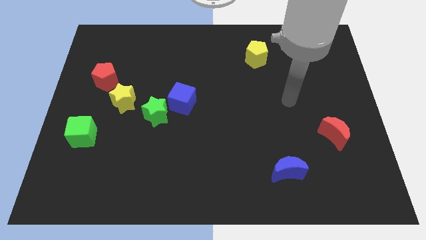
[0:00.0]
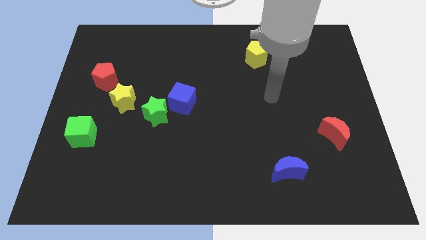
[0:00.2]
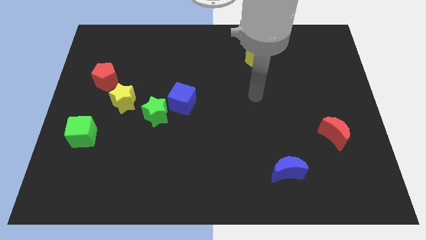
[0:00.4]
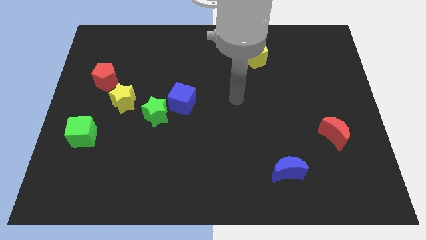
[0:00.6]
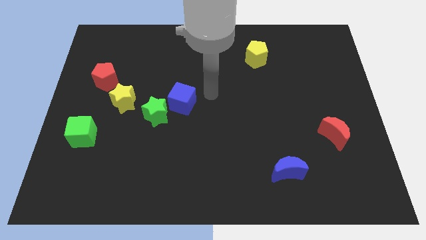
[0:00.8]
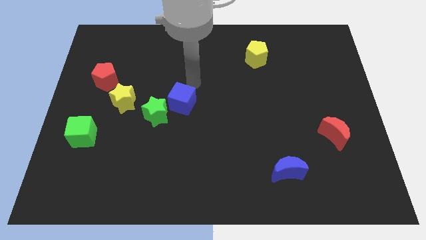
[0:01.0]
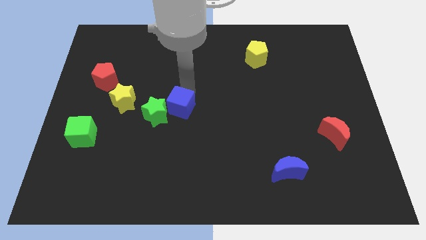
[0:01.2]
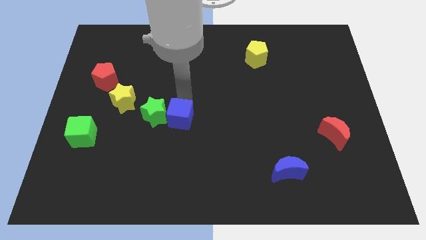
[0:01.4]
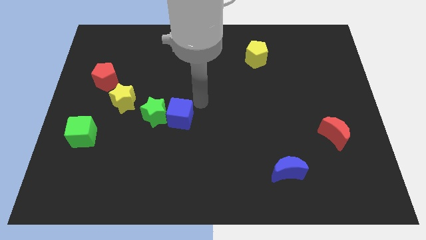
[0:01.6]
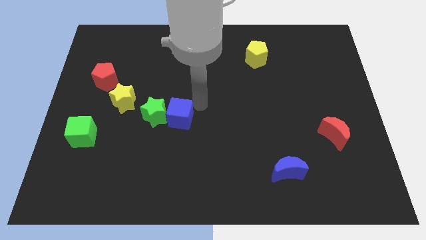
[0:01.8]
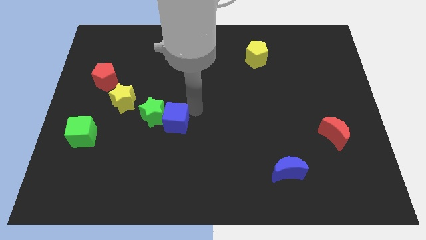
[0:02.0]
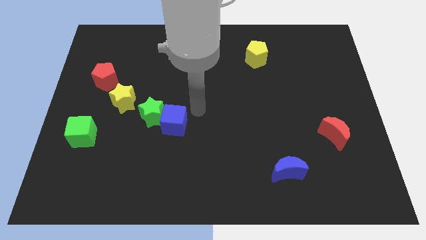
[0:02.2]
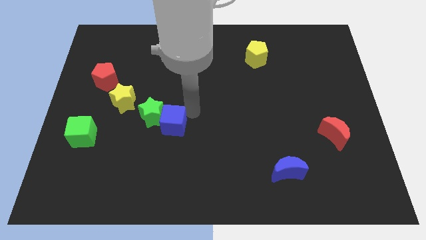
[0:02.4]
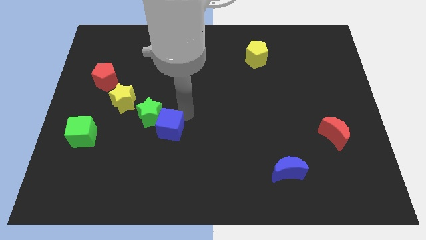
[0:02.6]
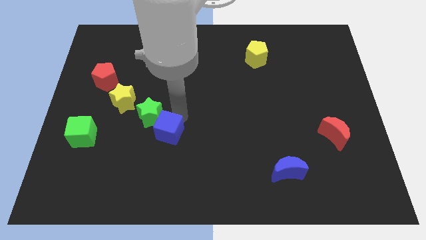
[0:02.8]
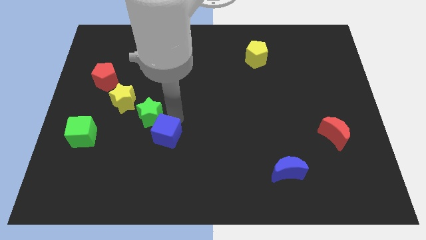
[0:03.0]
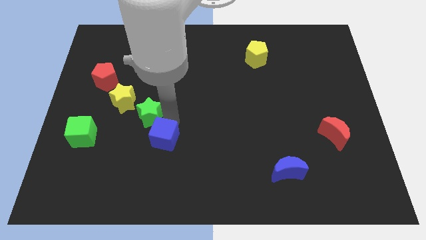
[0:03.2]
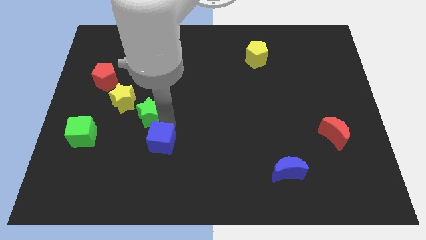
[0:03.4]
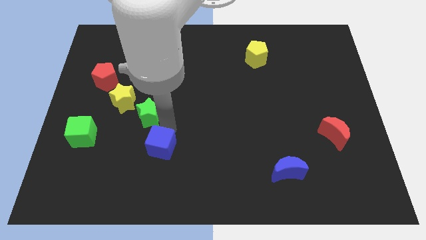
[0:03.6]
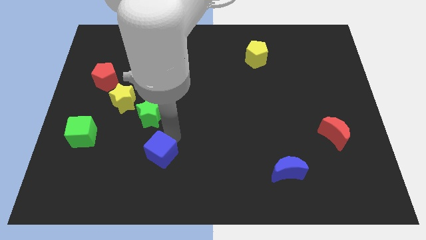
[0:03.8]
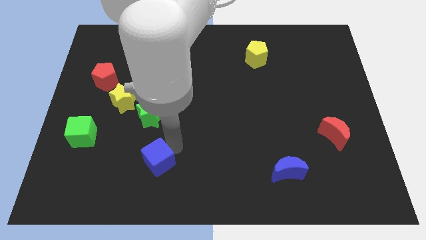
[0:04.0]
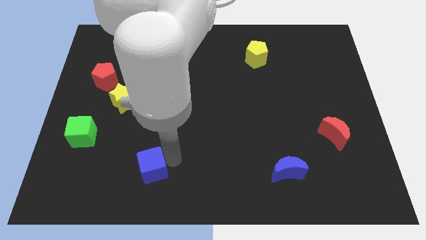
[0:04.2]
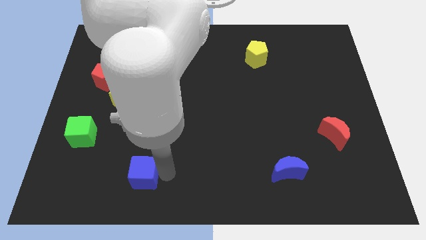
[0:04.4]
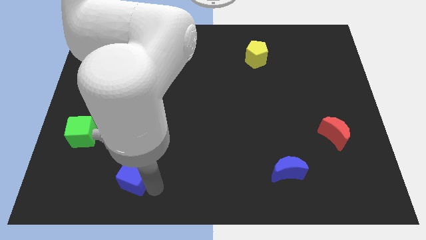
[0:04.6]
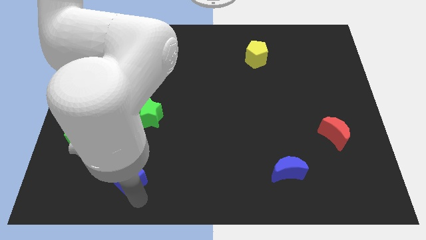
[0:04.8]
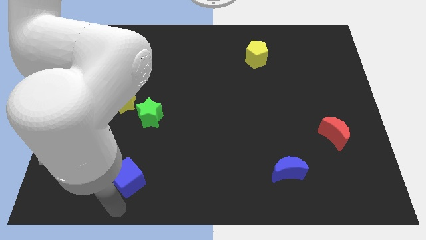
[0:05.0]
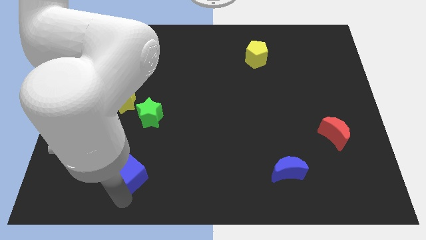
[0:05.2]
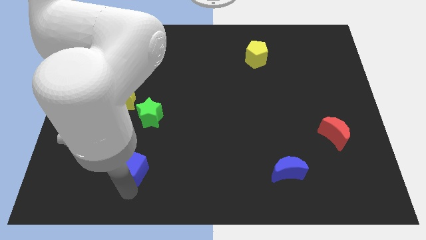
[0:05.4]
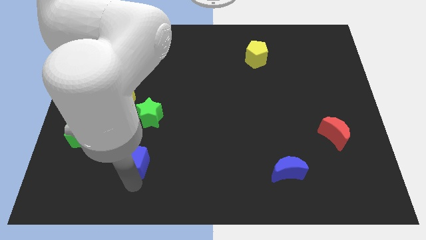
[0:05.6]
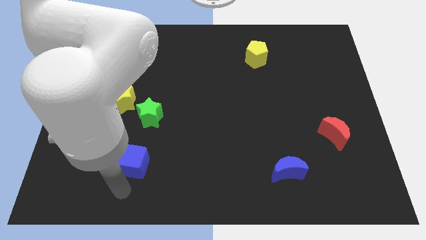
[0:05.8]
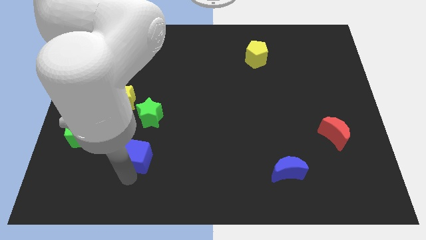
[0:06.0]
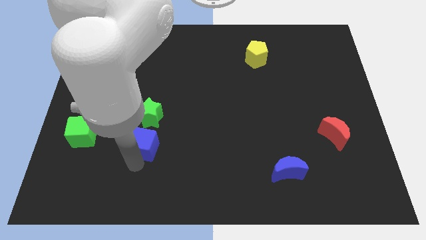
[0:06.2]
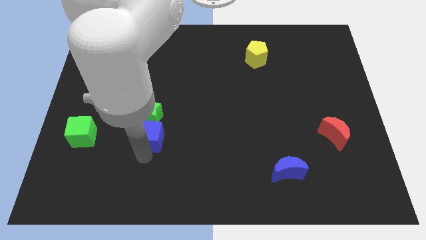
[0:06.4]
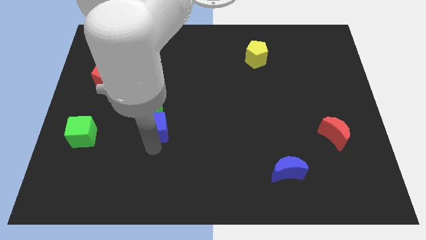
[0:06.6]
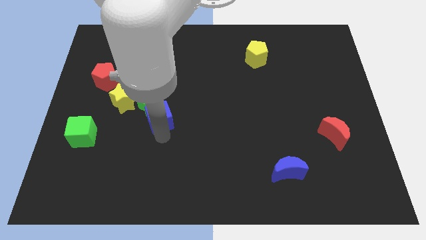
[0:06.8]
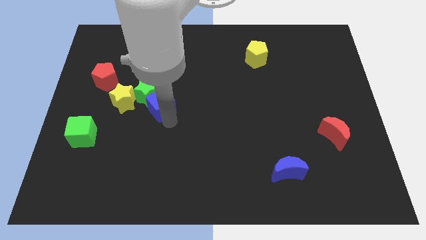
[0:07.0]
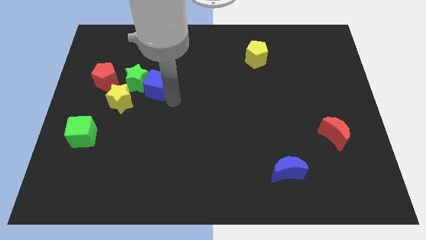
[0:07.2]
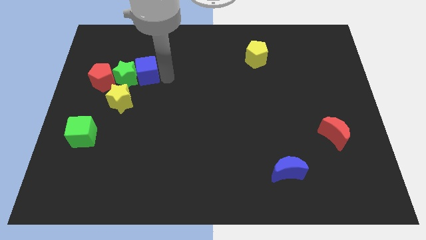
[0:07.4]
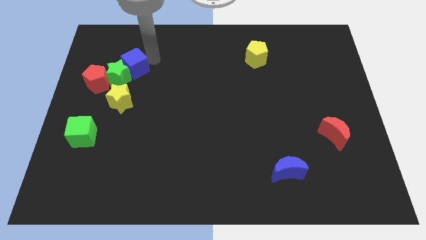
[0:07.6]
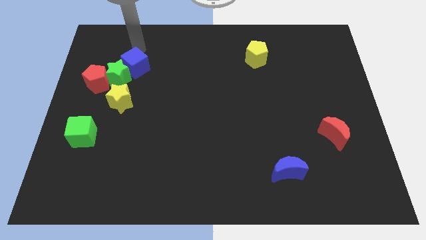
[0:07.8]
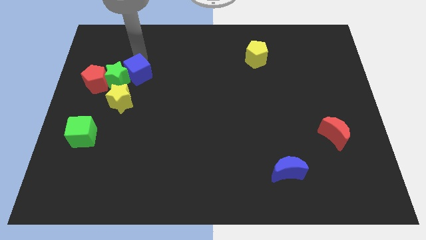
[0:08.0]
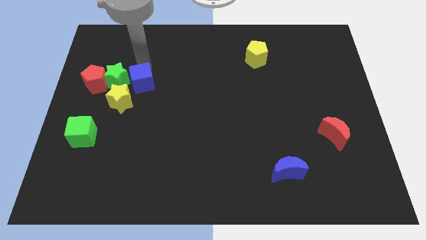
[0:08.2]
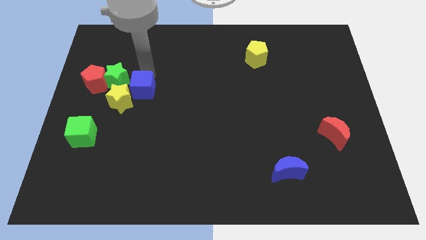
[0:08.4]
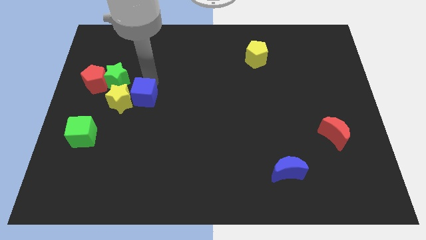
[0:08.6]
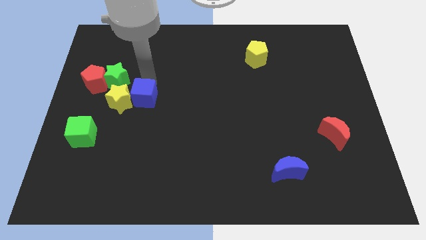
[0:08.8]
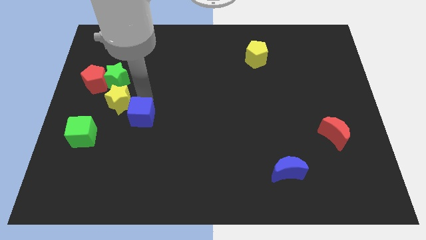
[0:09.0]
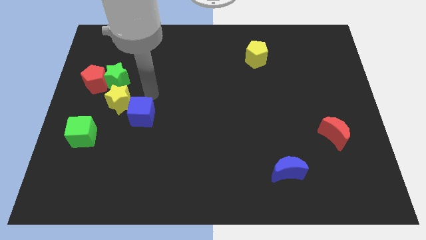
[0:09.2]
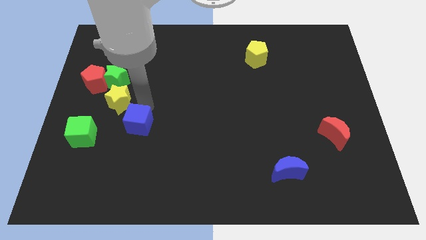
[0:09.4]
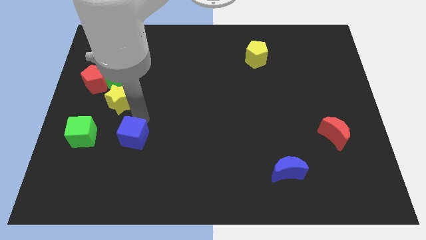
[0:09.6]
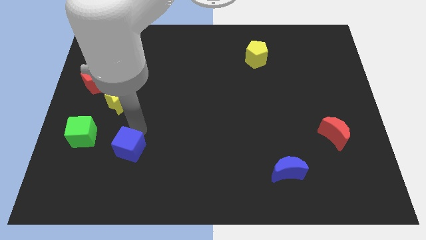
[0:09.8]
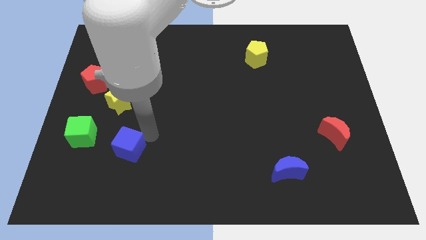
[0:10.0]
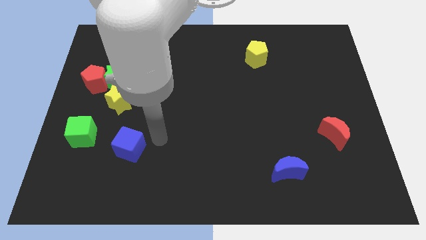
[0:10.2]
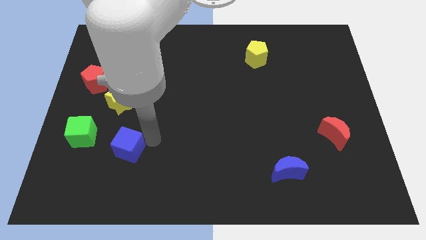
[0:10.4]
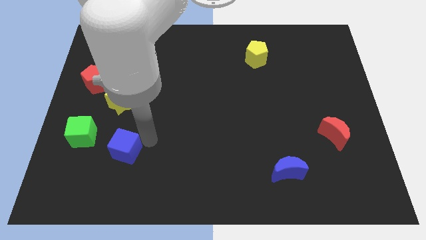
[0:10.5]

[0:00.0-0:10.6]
push the blue cube to the bottom right side of the green cube

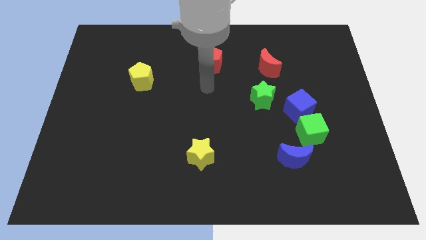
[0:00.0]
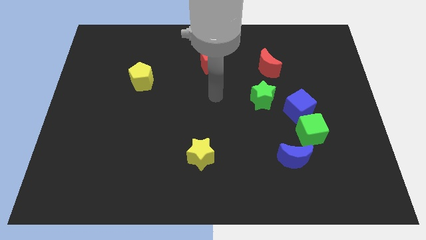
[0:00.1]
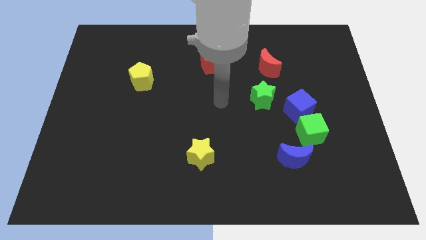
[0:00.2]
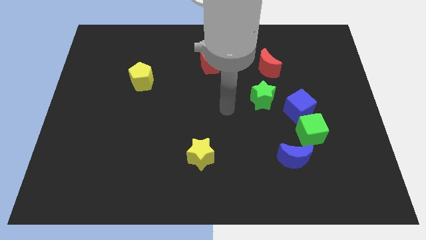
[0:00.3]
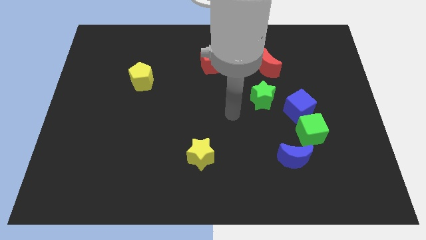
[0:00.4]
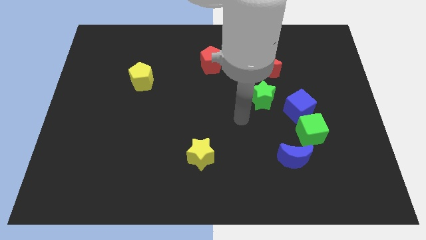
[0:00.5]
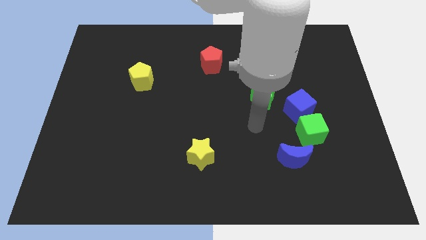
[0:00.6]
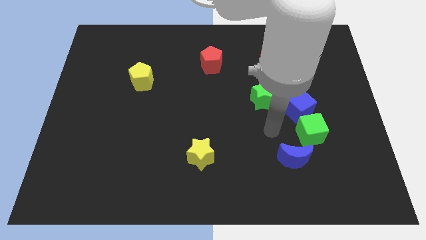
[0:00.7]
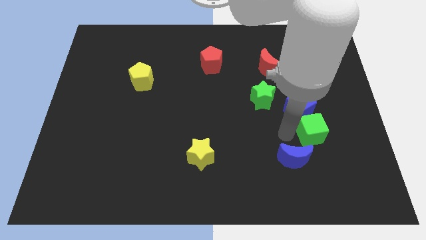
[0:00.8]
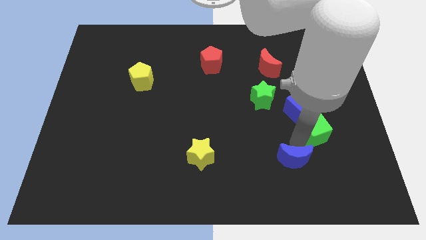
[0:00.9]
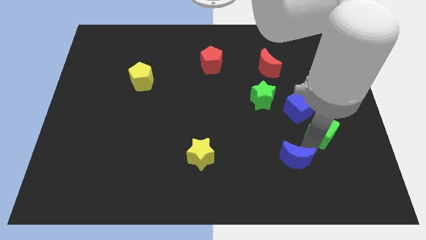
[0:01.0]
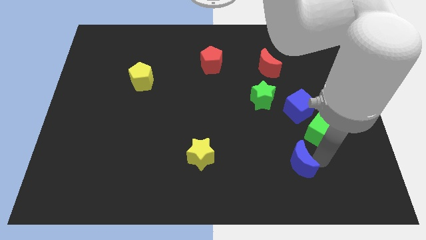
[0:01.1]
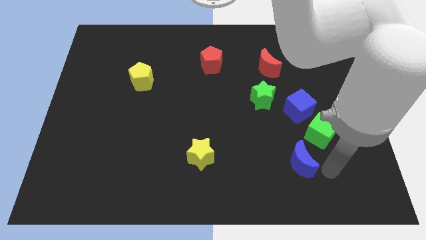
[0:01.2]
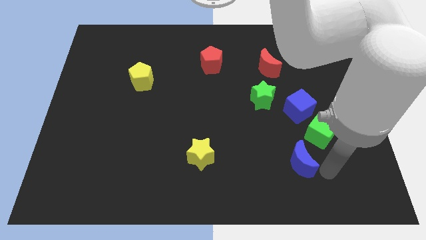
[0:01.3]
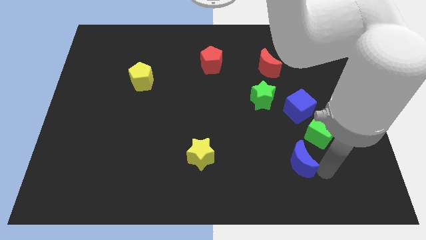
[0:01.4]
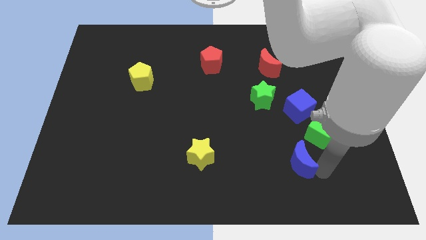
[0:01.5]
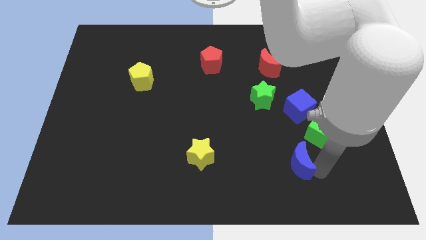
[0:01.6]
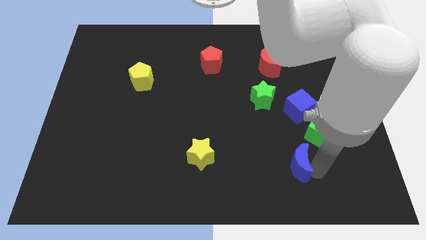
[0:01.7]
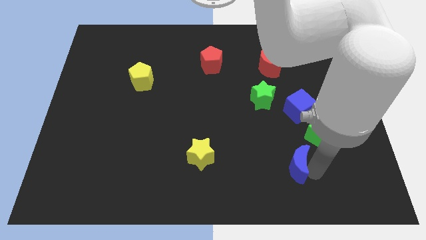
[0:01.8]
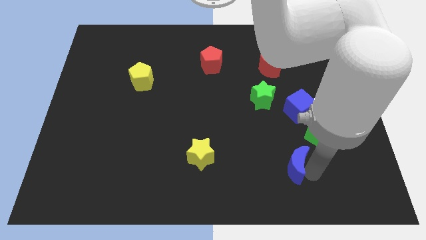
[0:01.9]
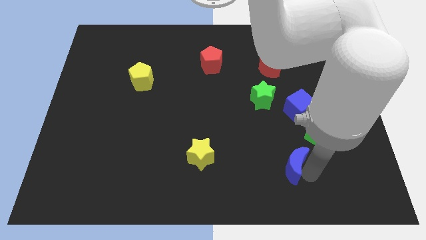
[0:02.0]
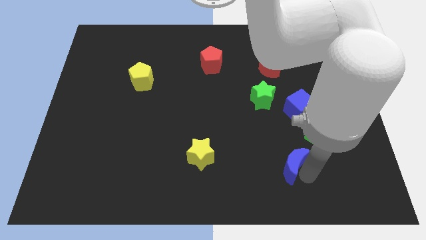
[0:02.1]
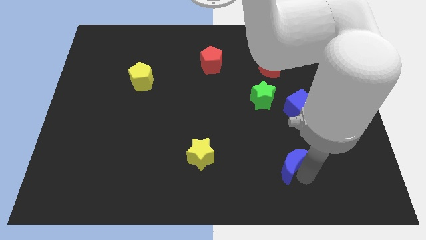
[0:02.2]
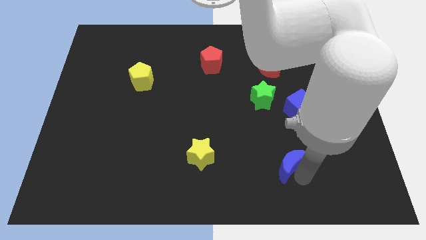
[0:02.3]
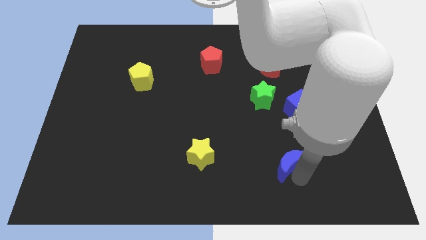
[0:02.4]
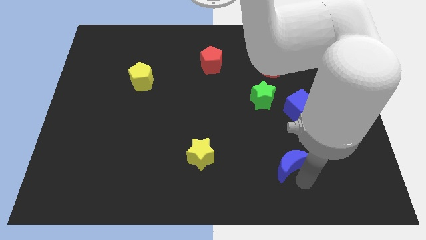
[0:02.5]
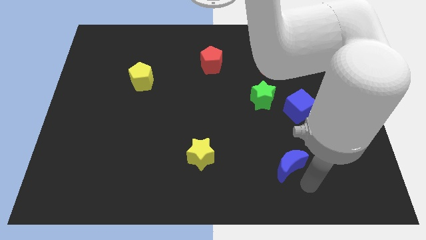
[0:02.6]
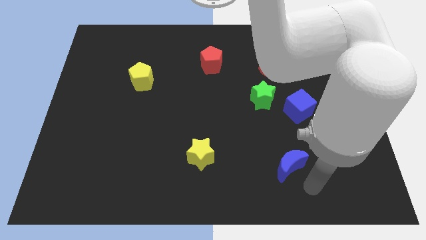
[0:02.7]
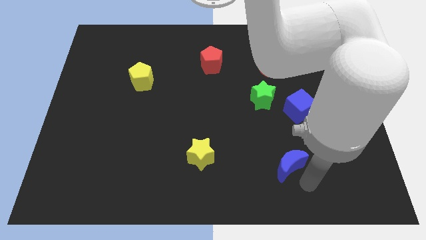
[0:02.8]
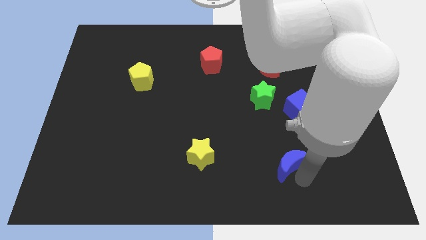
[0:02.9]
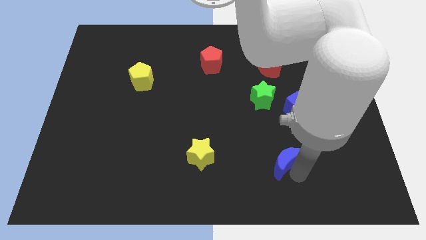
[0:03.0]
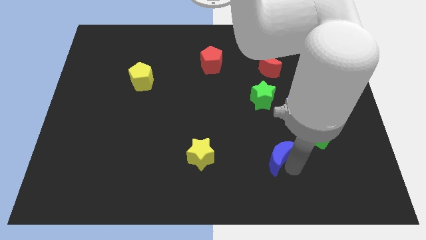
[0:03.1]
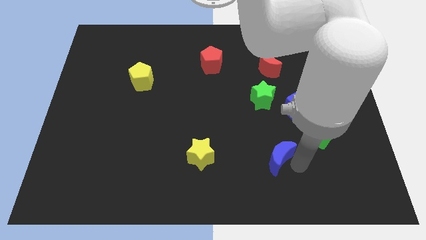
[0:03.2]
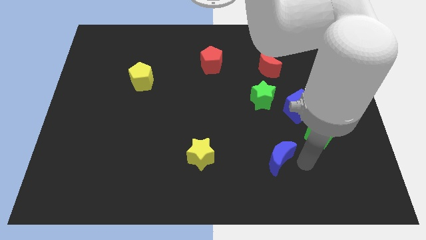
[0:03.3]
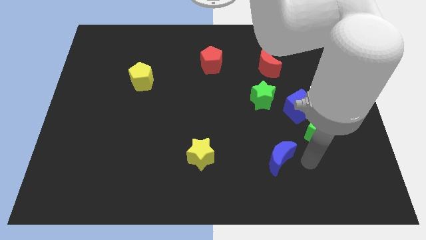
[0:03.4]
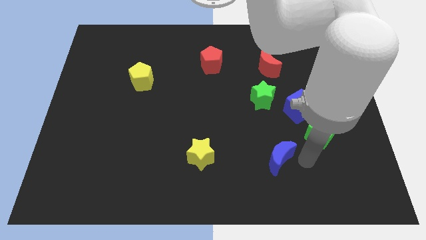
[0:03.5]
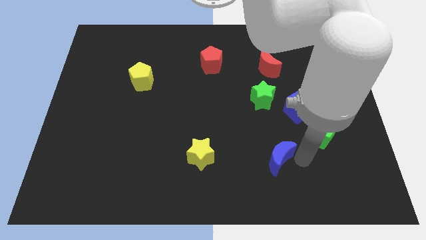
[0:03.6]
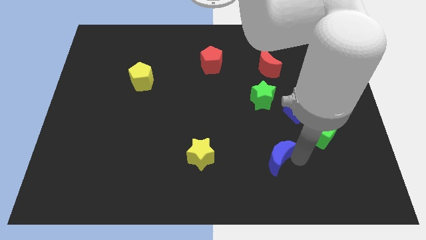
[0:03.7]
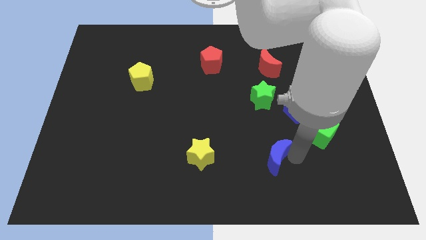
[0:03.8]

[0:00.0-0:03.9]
move the blue moon to the right of the yellow star
